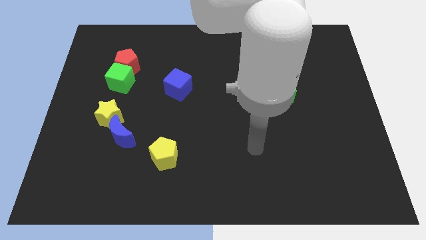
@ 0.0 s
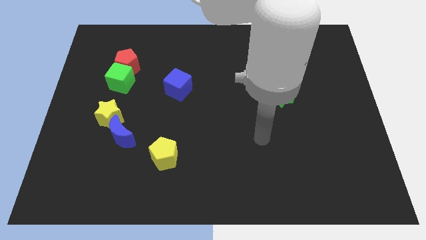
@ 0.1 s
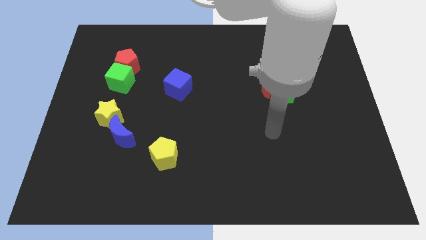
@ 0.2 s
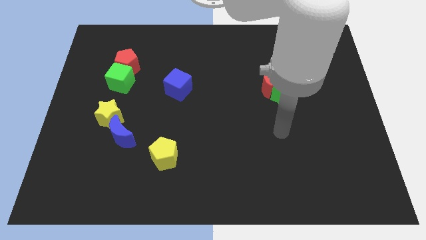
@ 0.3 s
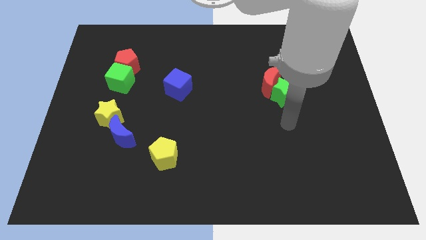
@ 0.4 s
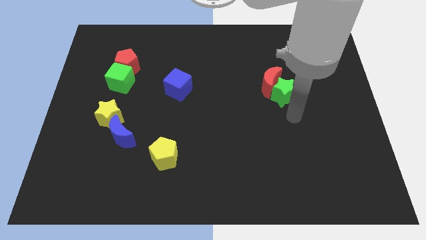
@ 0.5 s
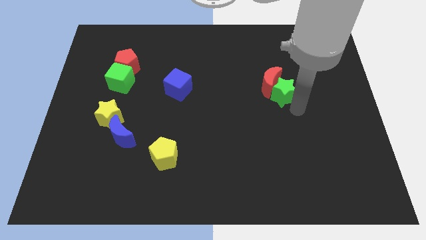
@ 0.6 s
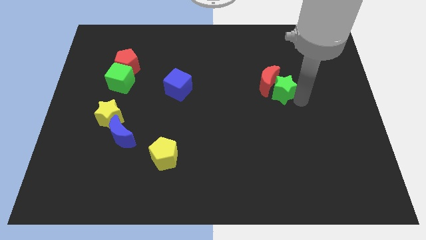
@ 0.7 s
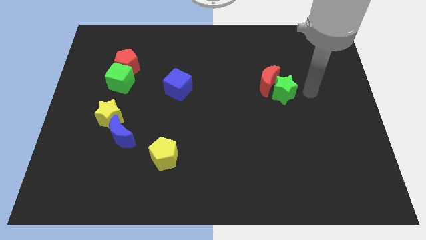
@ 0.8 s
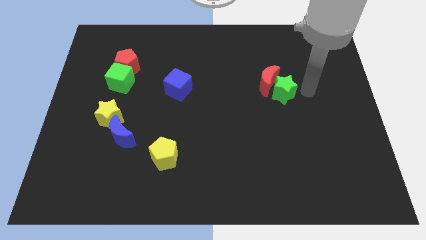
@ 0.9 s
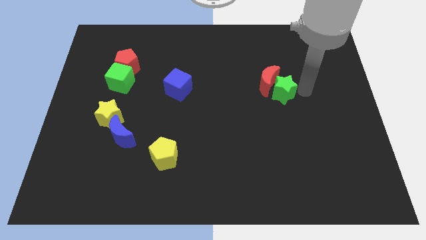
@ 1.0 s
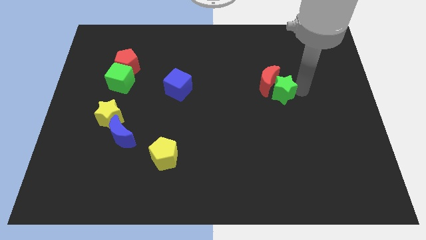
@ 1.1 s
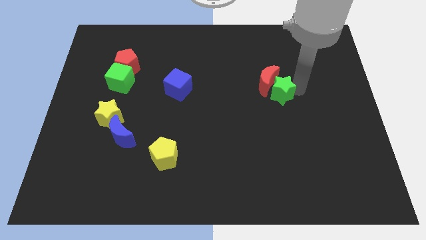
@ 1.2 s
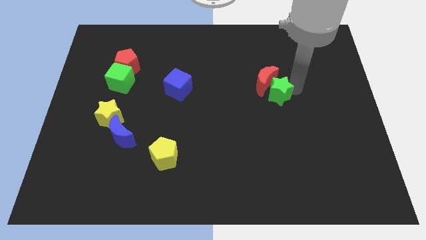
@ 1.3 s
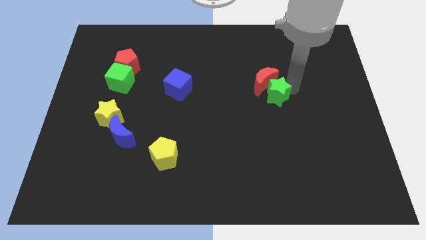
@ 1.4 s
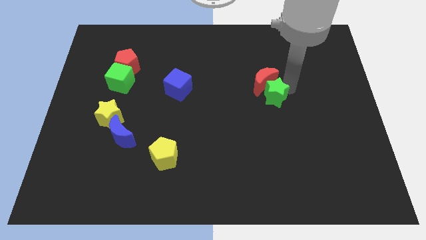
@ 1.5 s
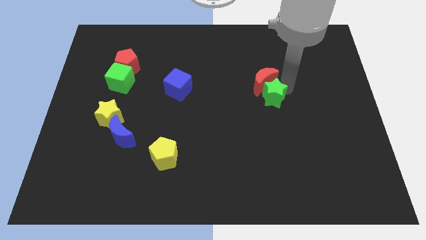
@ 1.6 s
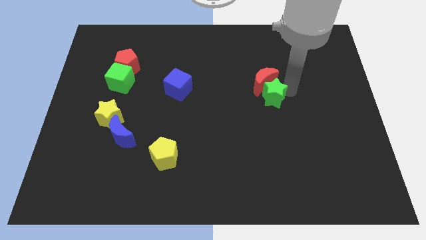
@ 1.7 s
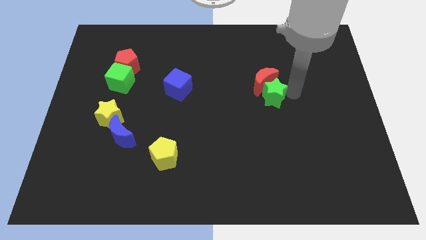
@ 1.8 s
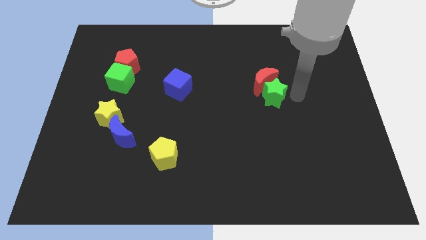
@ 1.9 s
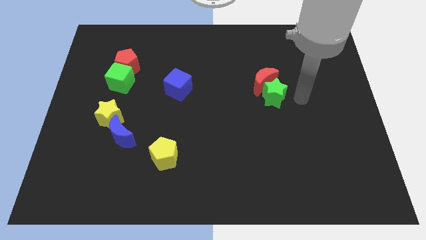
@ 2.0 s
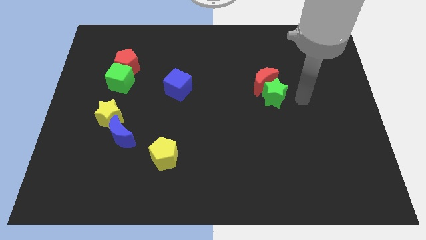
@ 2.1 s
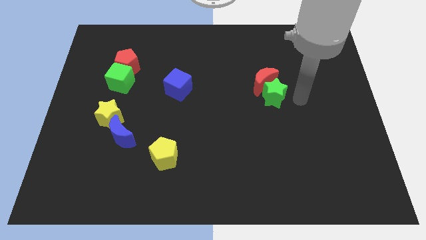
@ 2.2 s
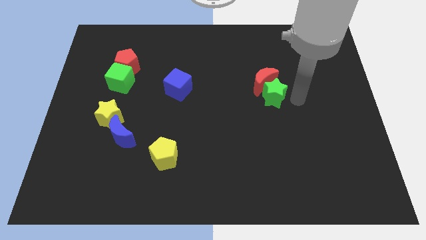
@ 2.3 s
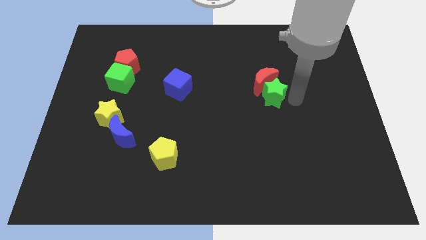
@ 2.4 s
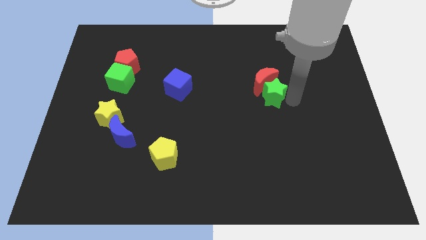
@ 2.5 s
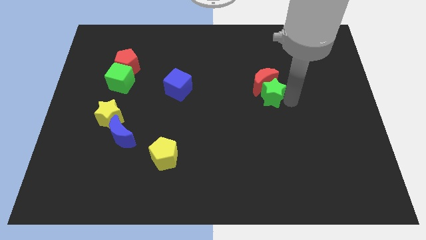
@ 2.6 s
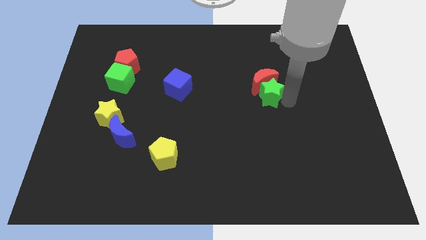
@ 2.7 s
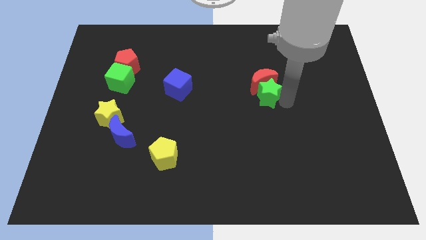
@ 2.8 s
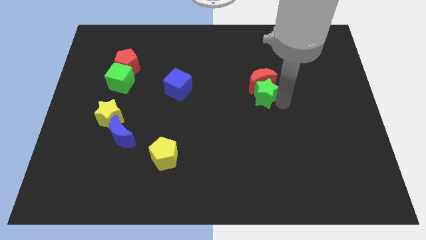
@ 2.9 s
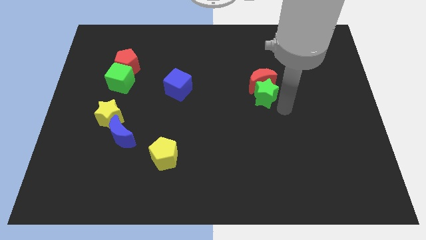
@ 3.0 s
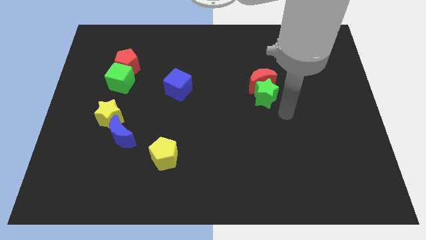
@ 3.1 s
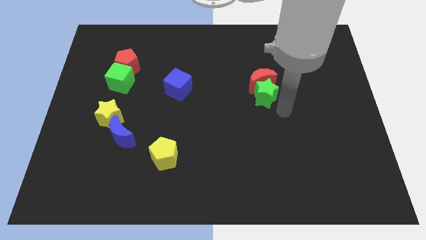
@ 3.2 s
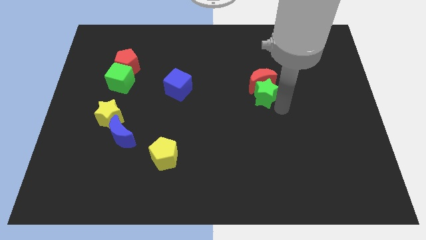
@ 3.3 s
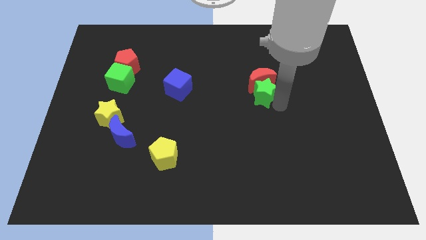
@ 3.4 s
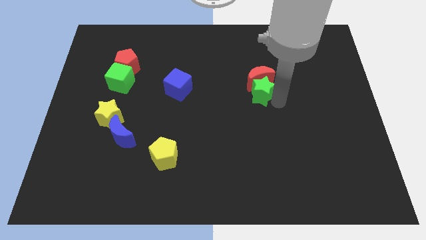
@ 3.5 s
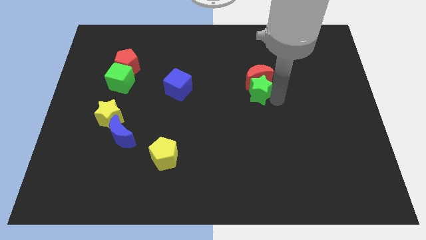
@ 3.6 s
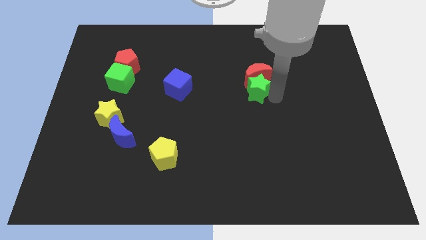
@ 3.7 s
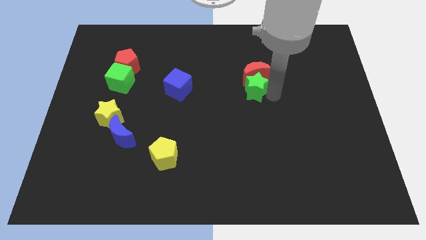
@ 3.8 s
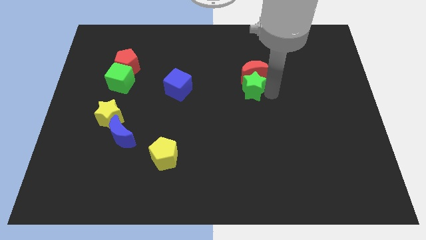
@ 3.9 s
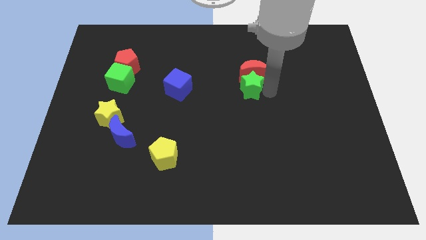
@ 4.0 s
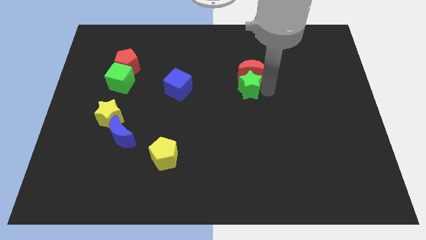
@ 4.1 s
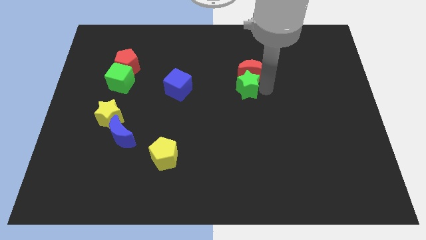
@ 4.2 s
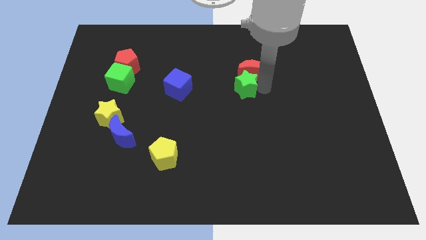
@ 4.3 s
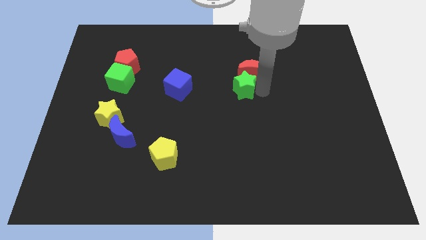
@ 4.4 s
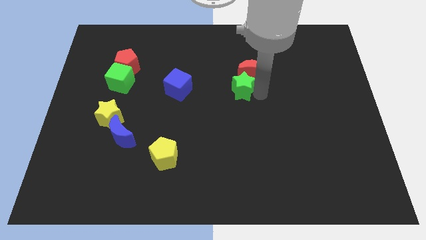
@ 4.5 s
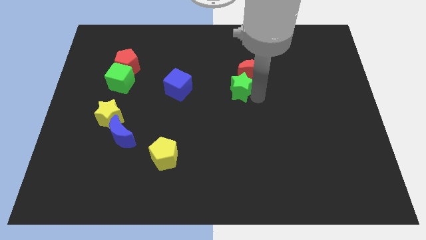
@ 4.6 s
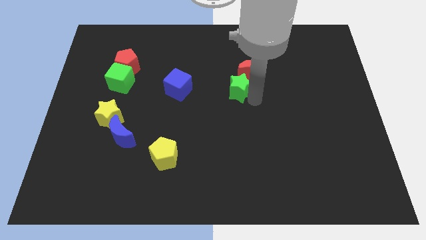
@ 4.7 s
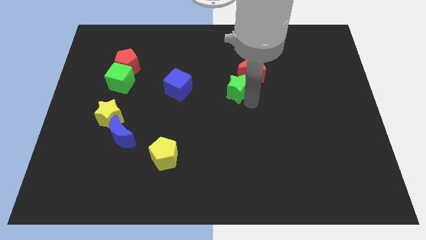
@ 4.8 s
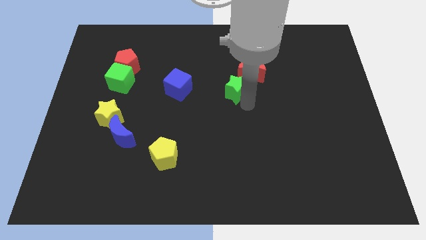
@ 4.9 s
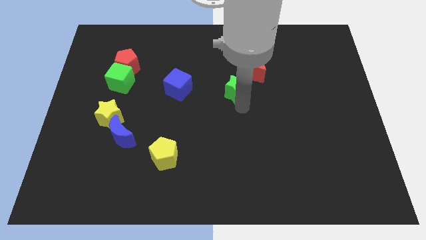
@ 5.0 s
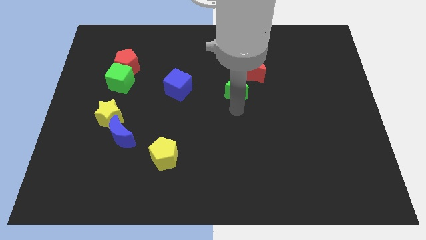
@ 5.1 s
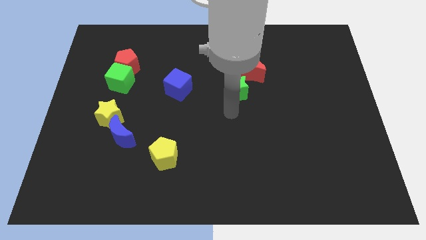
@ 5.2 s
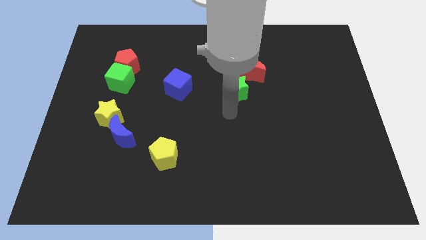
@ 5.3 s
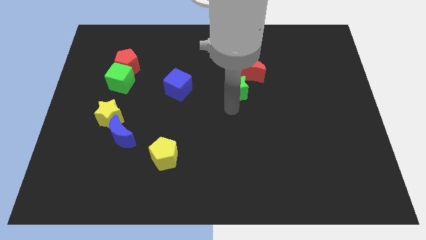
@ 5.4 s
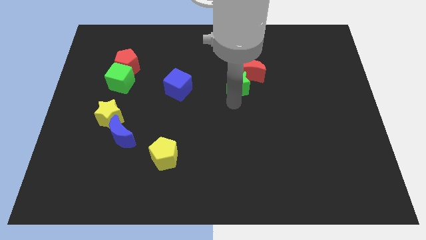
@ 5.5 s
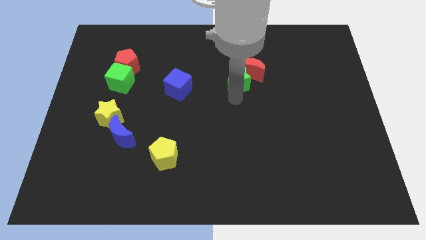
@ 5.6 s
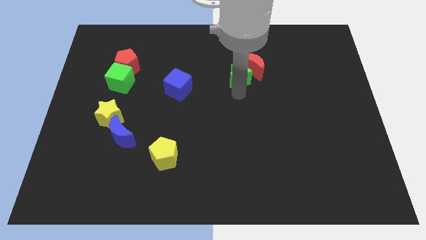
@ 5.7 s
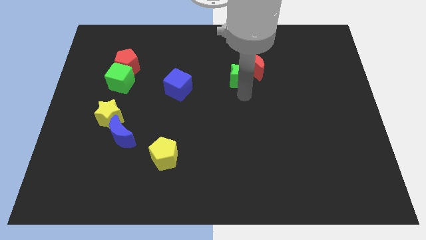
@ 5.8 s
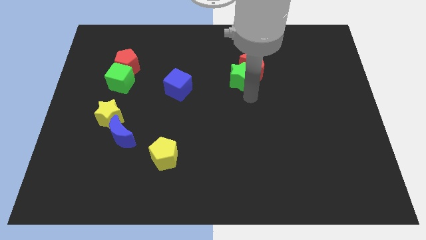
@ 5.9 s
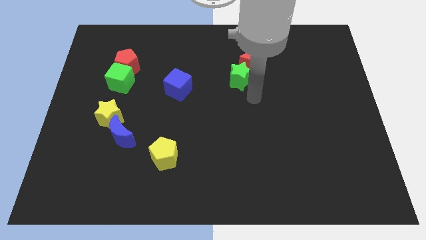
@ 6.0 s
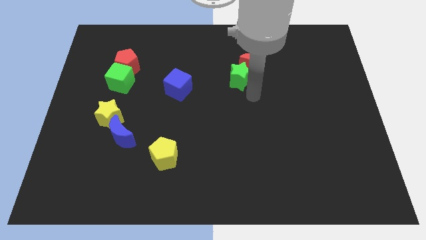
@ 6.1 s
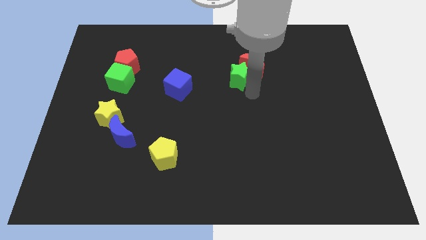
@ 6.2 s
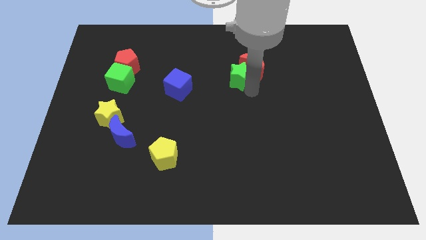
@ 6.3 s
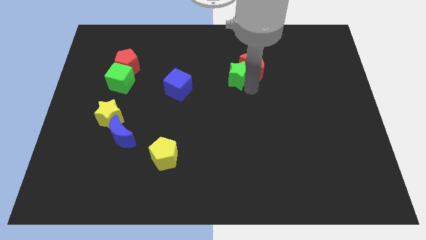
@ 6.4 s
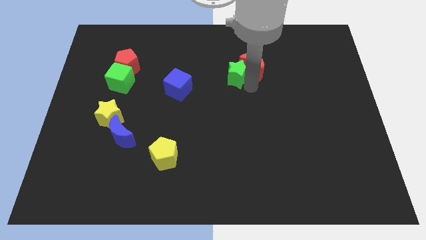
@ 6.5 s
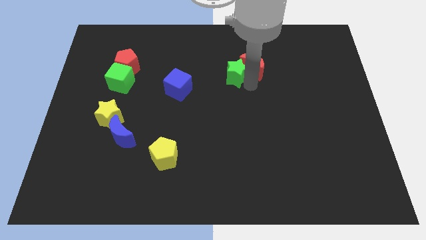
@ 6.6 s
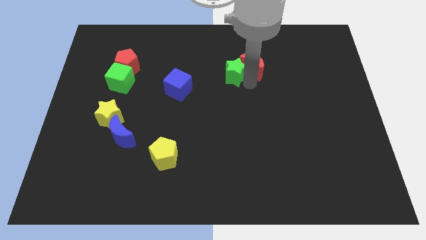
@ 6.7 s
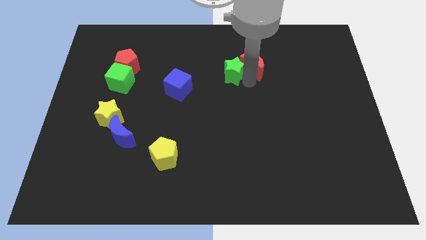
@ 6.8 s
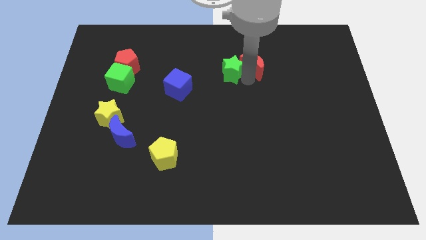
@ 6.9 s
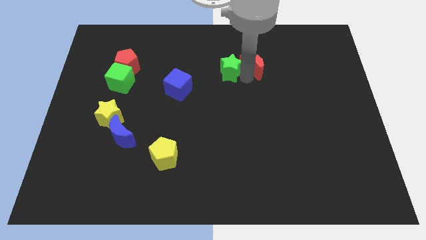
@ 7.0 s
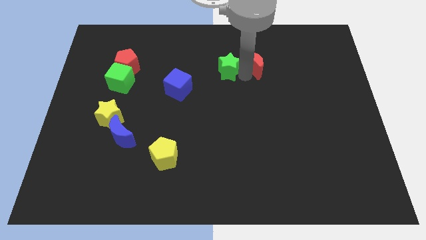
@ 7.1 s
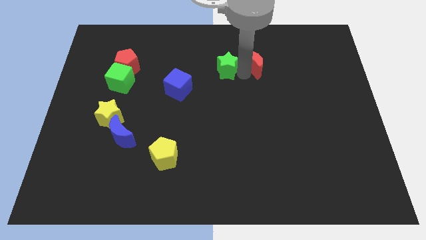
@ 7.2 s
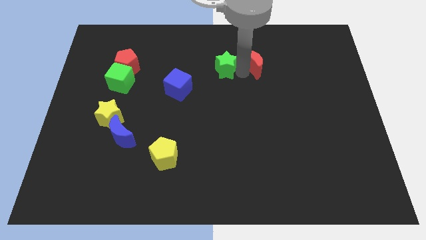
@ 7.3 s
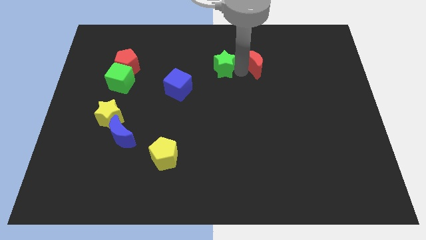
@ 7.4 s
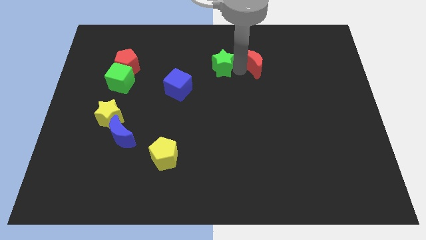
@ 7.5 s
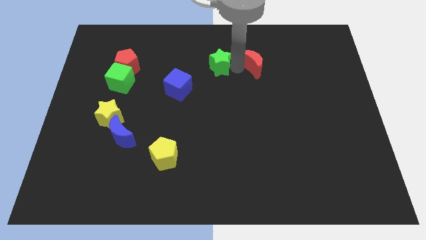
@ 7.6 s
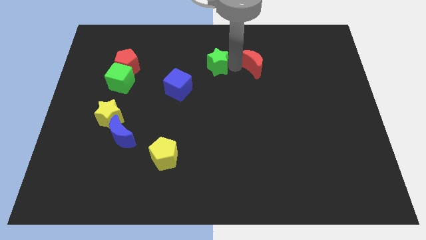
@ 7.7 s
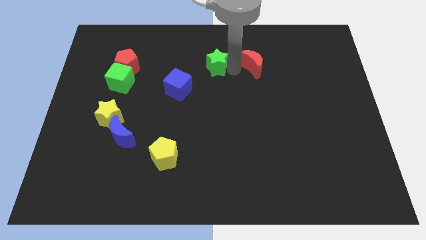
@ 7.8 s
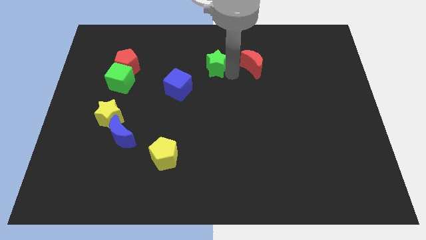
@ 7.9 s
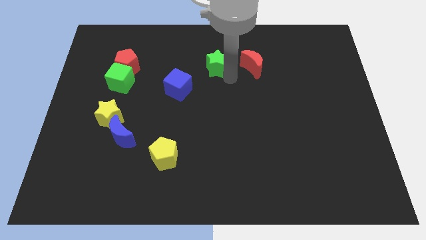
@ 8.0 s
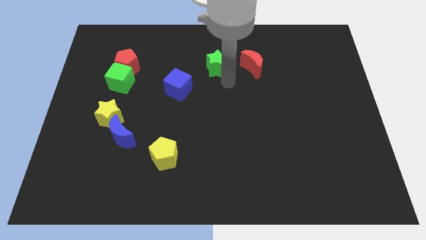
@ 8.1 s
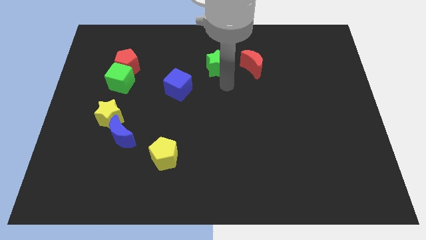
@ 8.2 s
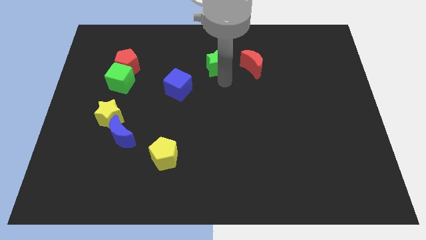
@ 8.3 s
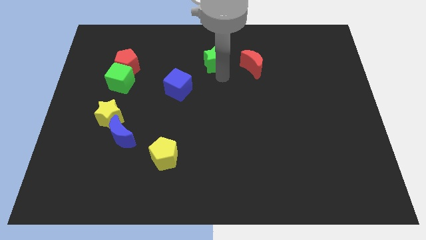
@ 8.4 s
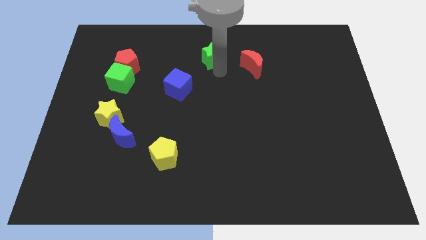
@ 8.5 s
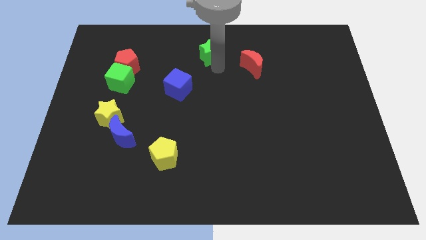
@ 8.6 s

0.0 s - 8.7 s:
push the green star to the top side
